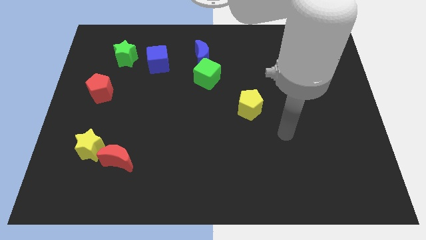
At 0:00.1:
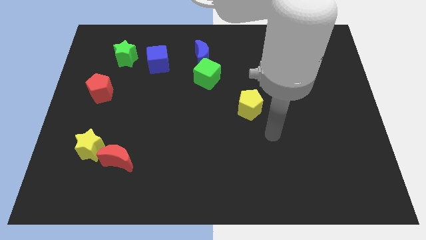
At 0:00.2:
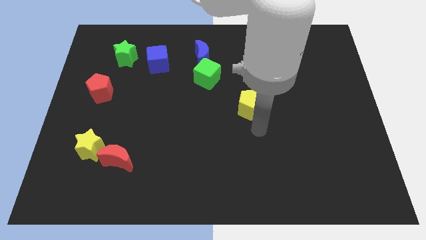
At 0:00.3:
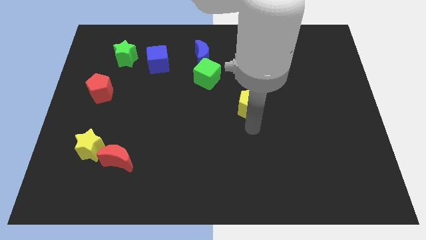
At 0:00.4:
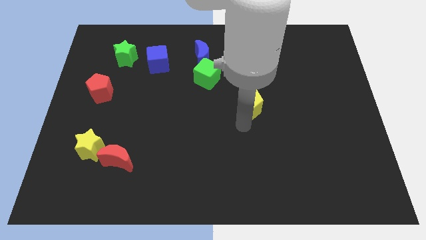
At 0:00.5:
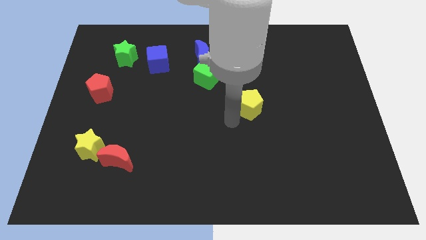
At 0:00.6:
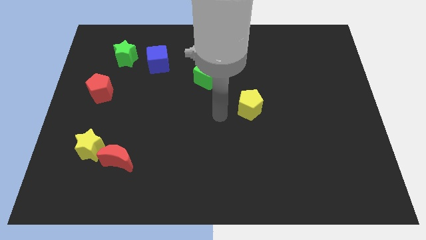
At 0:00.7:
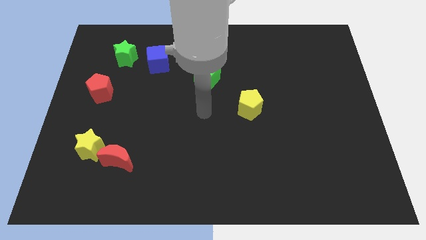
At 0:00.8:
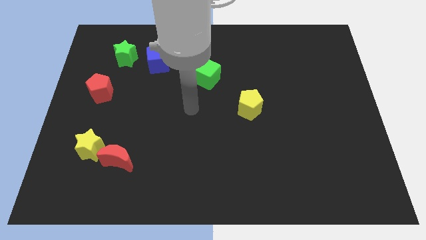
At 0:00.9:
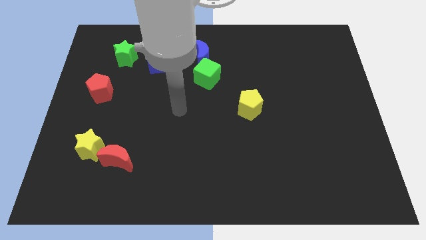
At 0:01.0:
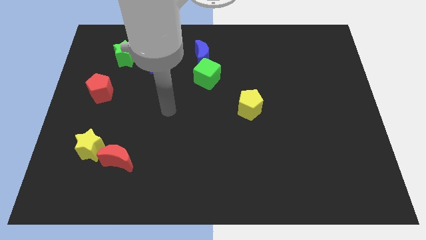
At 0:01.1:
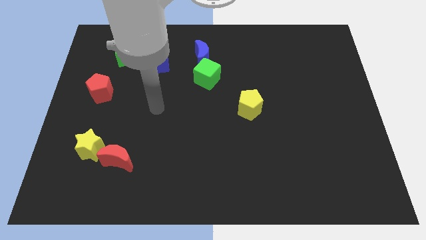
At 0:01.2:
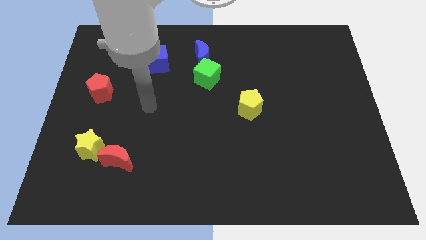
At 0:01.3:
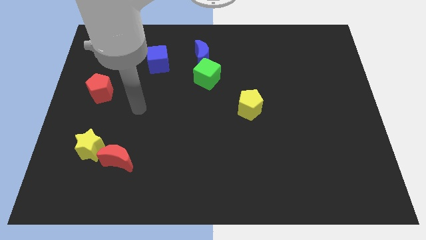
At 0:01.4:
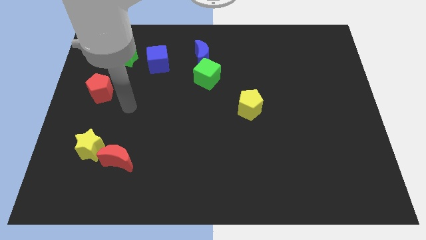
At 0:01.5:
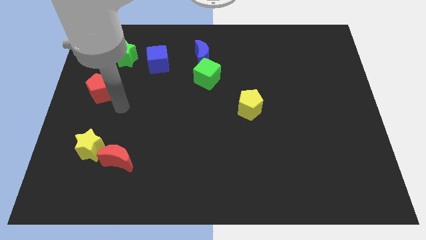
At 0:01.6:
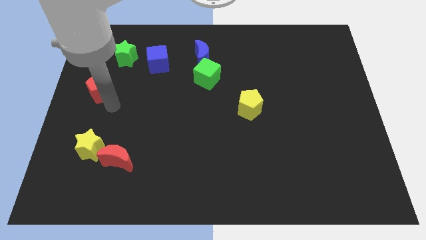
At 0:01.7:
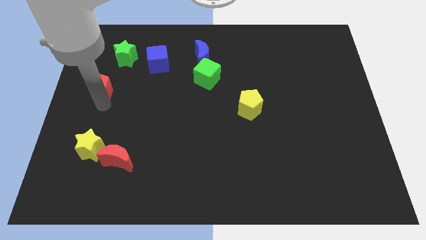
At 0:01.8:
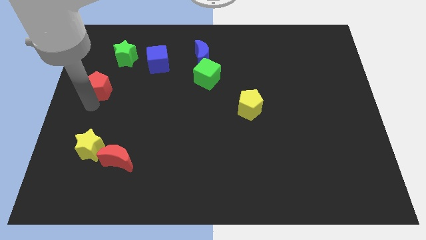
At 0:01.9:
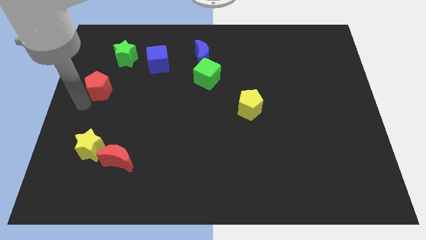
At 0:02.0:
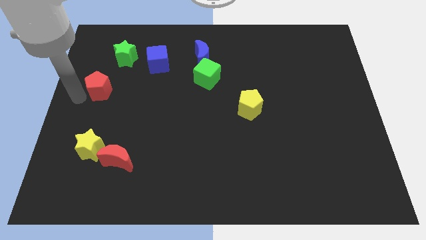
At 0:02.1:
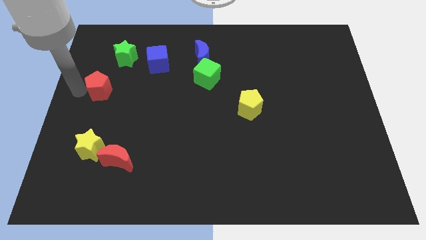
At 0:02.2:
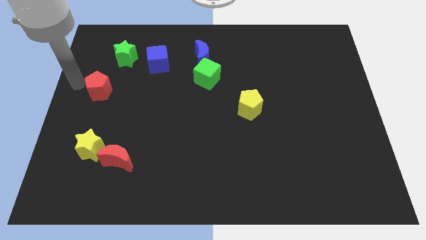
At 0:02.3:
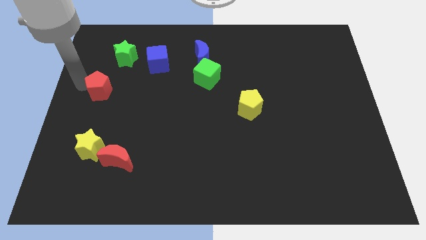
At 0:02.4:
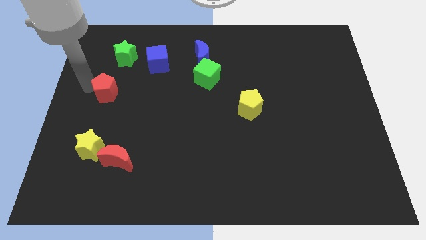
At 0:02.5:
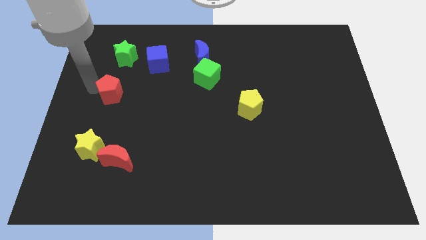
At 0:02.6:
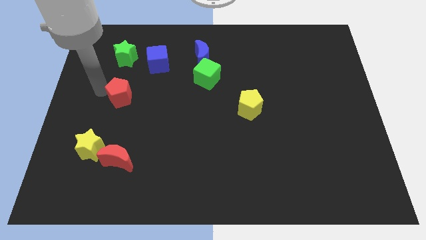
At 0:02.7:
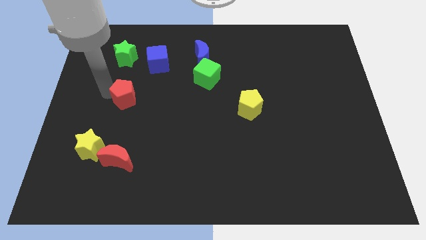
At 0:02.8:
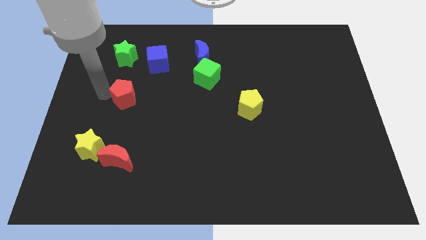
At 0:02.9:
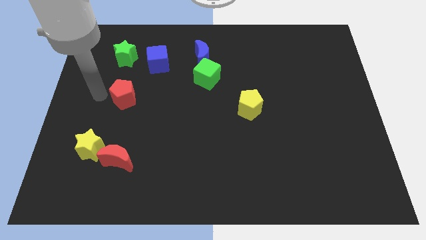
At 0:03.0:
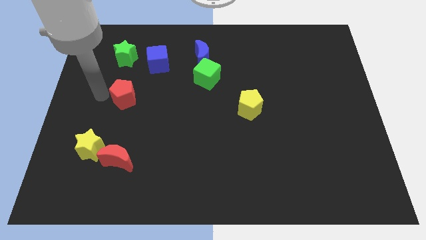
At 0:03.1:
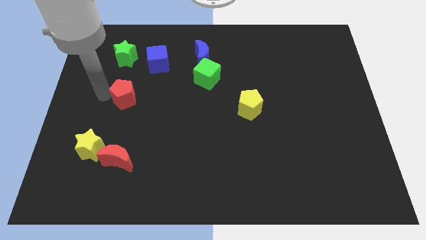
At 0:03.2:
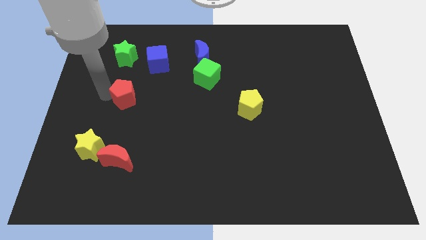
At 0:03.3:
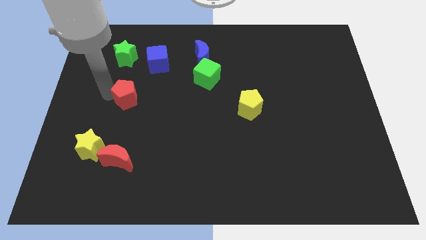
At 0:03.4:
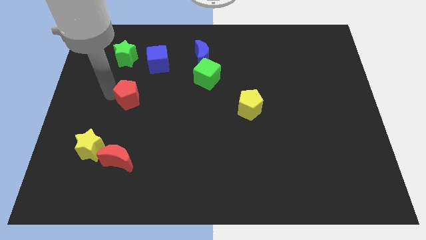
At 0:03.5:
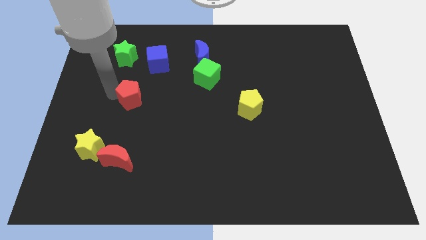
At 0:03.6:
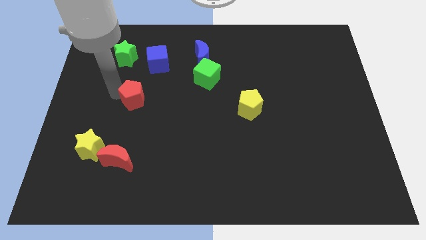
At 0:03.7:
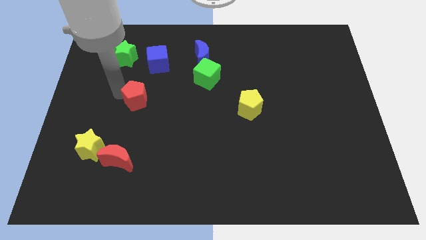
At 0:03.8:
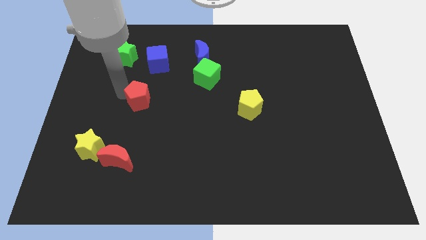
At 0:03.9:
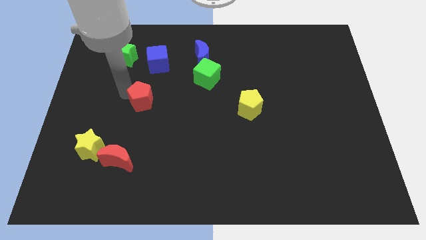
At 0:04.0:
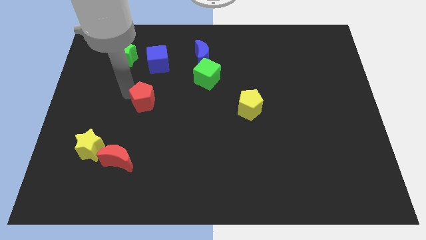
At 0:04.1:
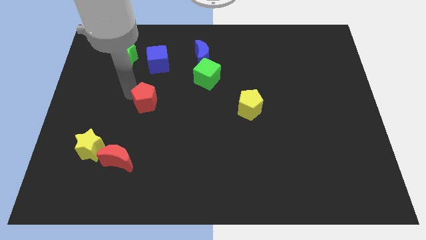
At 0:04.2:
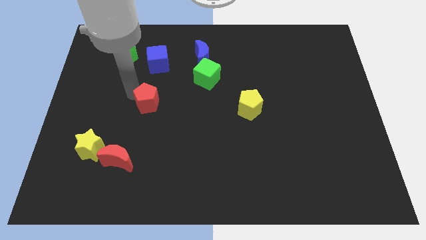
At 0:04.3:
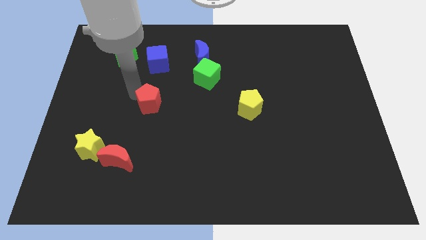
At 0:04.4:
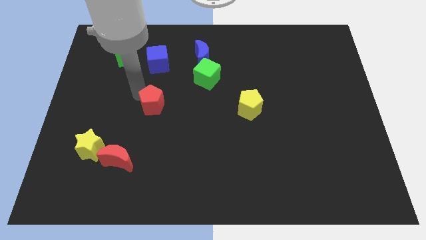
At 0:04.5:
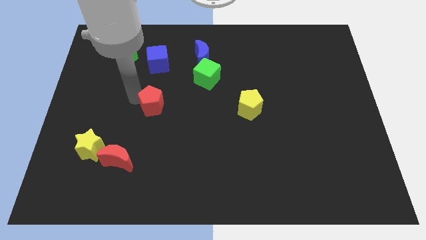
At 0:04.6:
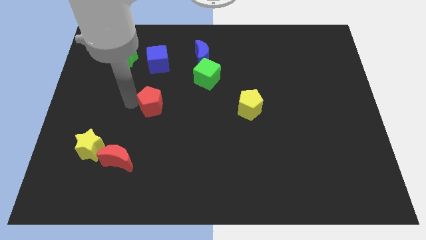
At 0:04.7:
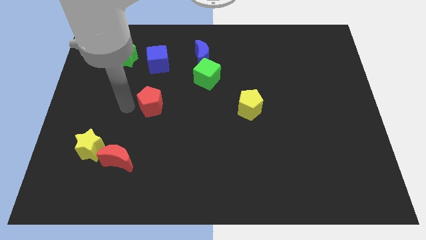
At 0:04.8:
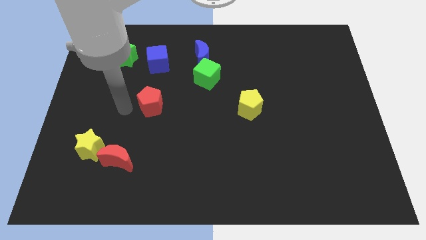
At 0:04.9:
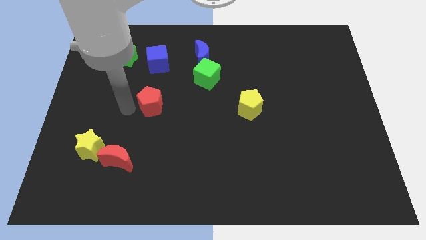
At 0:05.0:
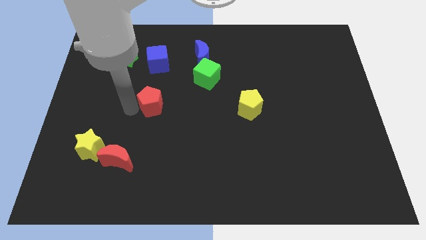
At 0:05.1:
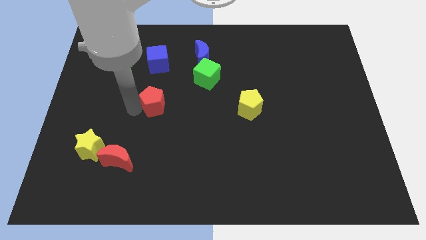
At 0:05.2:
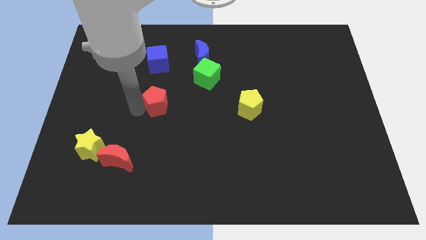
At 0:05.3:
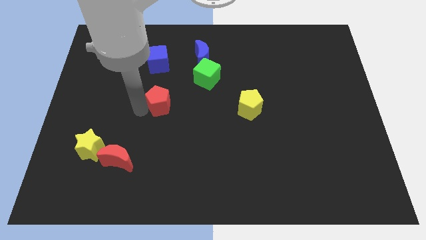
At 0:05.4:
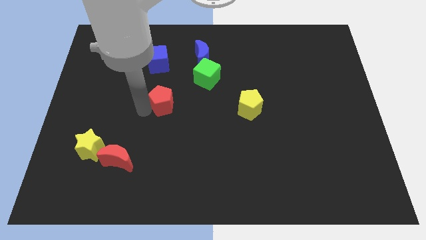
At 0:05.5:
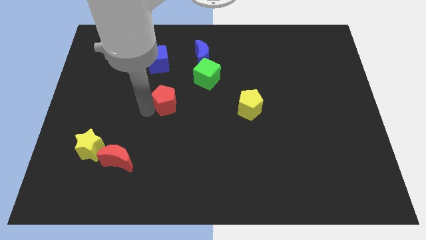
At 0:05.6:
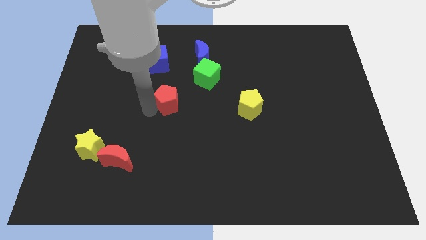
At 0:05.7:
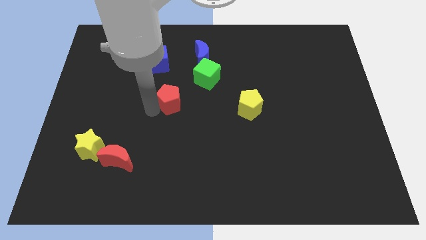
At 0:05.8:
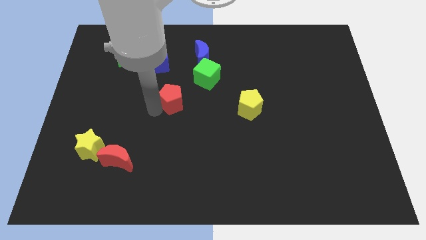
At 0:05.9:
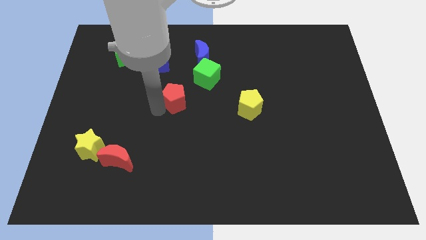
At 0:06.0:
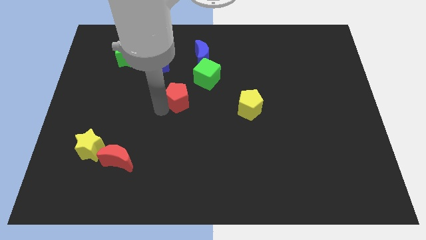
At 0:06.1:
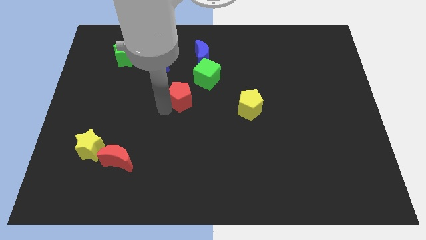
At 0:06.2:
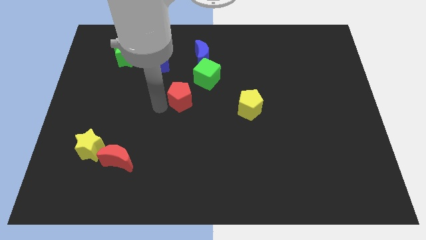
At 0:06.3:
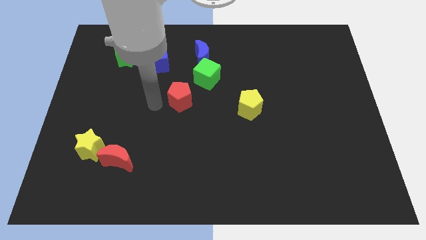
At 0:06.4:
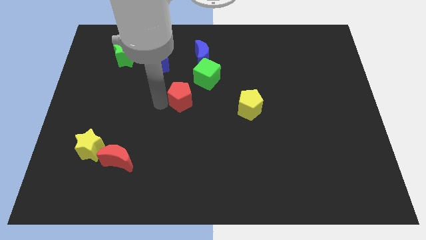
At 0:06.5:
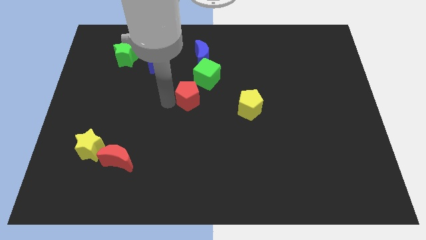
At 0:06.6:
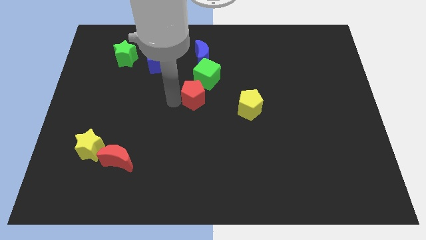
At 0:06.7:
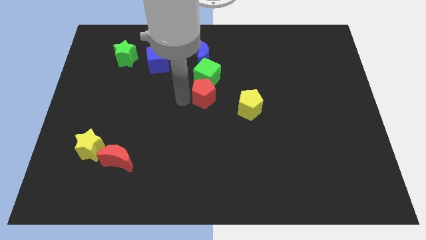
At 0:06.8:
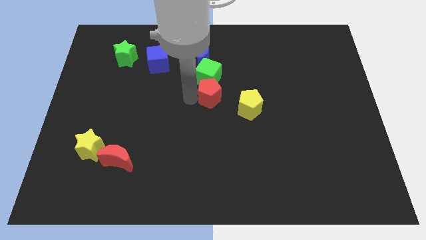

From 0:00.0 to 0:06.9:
move the red pentagon diagonally up and to the left of the yellow pentagon
